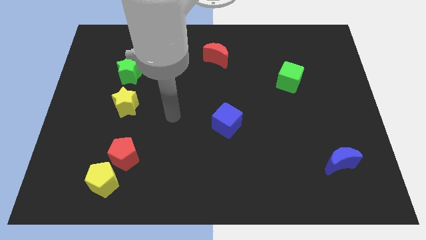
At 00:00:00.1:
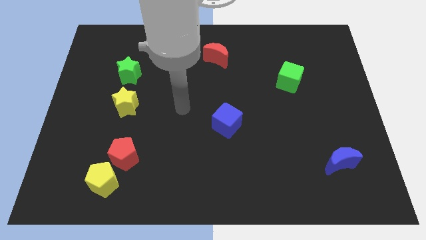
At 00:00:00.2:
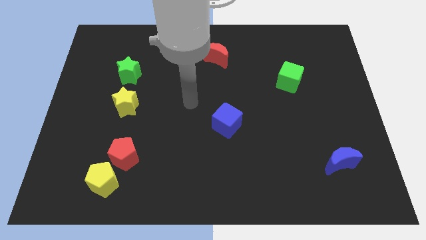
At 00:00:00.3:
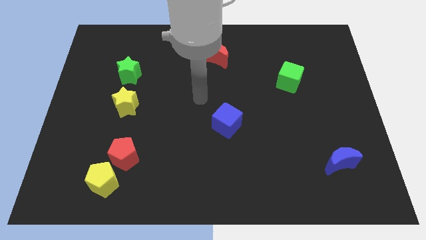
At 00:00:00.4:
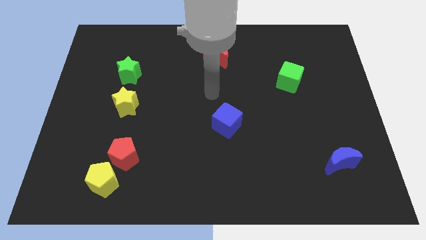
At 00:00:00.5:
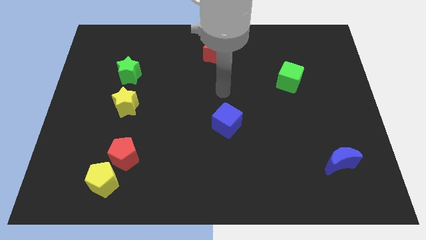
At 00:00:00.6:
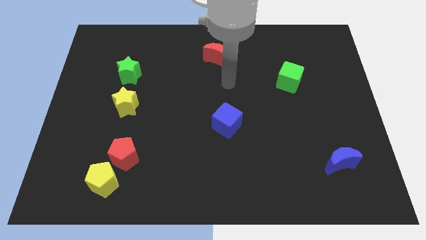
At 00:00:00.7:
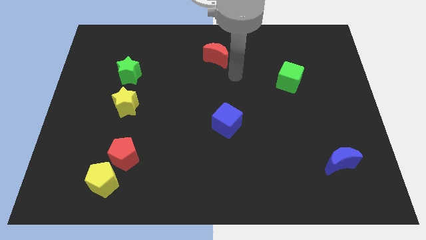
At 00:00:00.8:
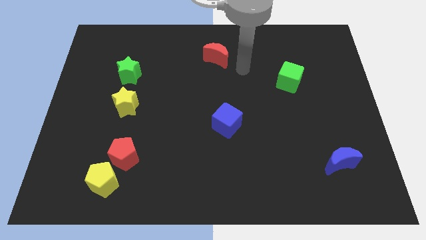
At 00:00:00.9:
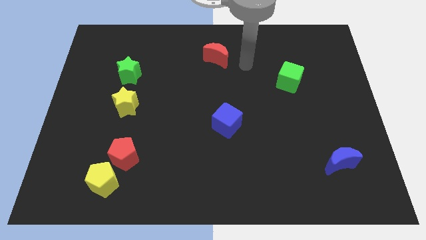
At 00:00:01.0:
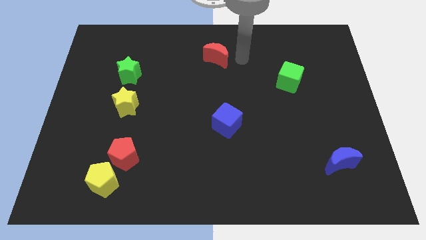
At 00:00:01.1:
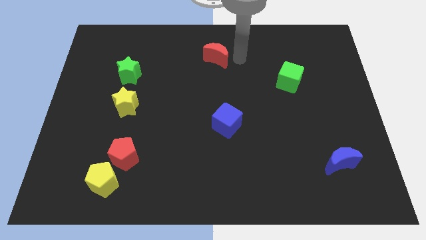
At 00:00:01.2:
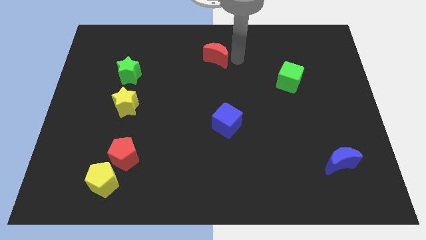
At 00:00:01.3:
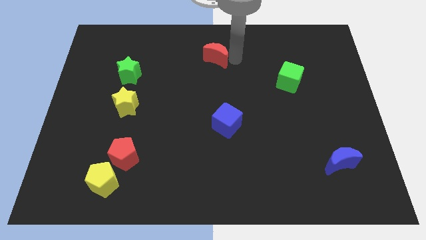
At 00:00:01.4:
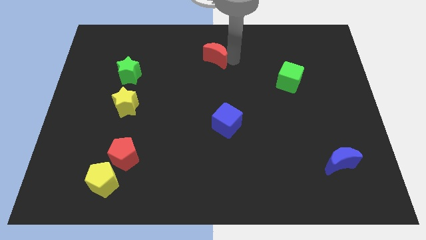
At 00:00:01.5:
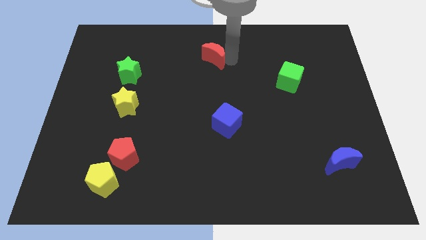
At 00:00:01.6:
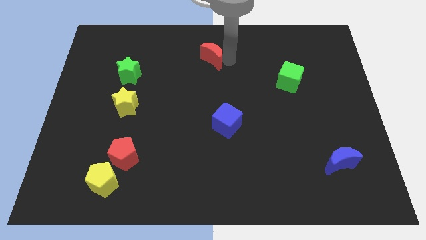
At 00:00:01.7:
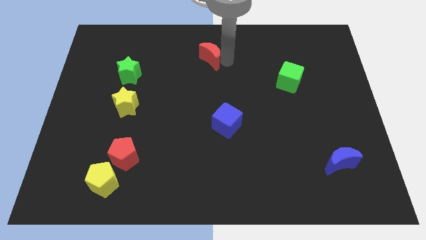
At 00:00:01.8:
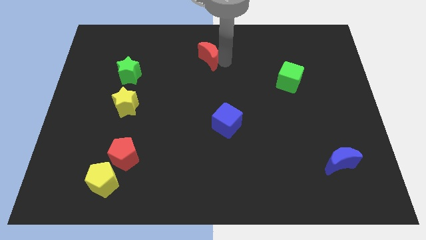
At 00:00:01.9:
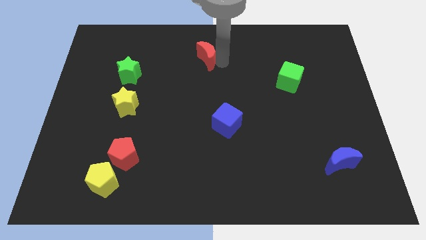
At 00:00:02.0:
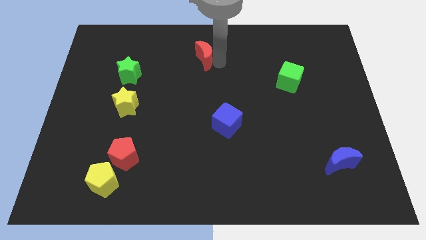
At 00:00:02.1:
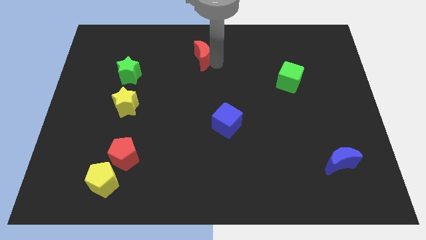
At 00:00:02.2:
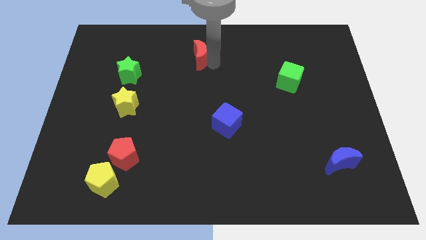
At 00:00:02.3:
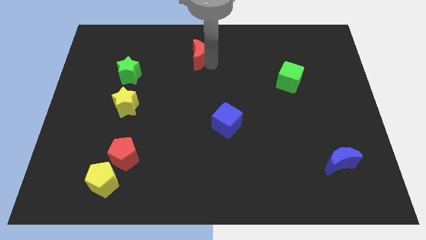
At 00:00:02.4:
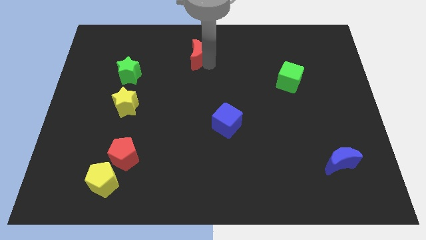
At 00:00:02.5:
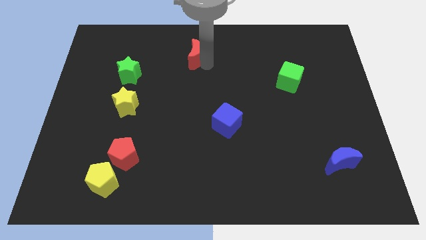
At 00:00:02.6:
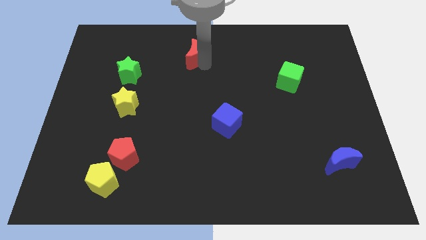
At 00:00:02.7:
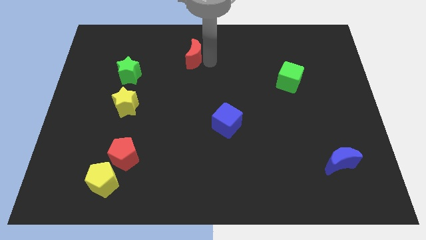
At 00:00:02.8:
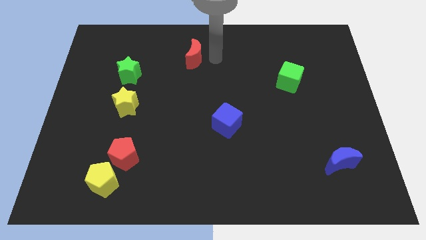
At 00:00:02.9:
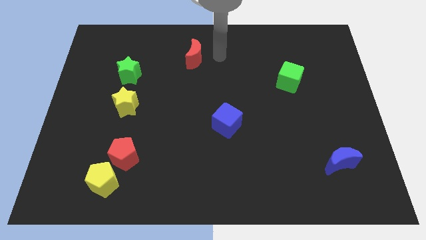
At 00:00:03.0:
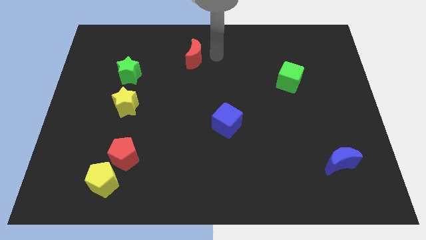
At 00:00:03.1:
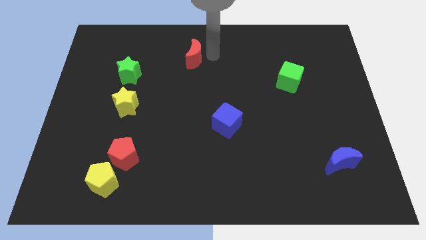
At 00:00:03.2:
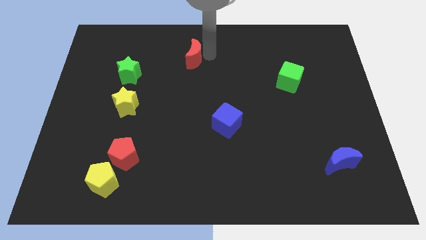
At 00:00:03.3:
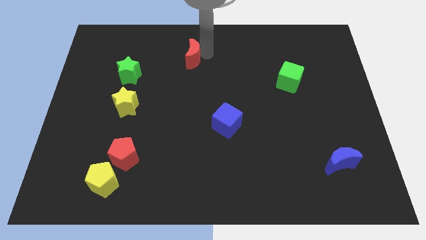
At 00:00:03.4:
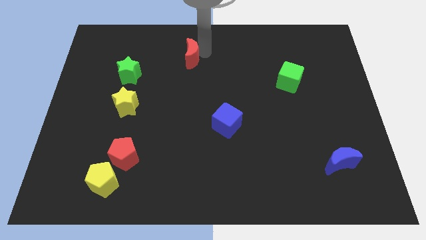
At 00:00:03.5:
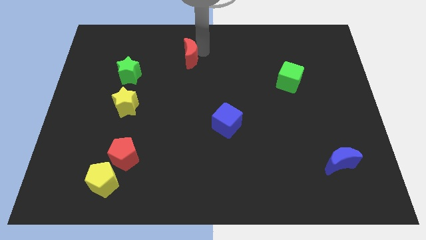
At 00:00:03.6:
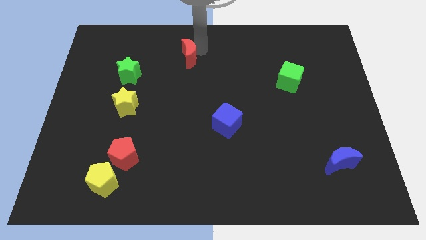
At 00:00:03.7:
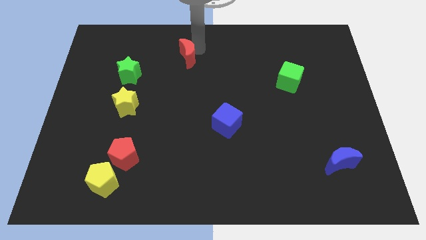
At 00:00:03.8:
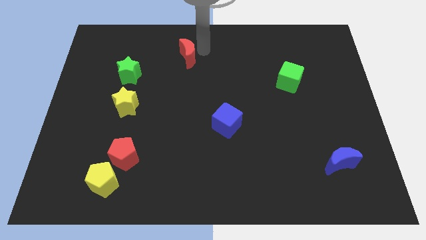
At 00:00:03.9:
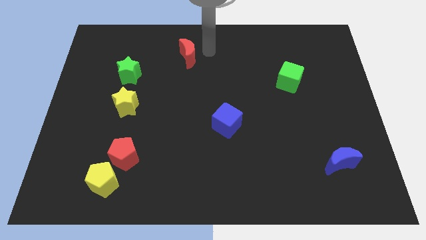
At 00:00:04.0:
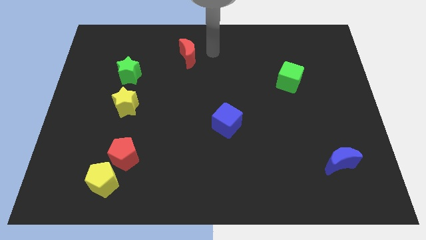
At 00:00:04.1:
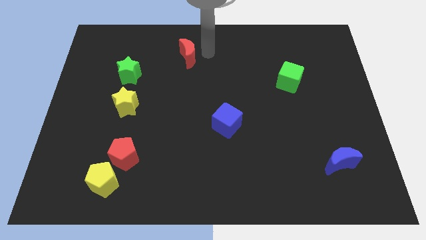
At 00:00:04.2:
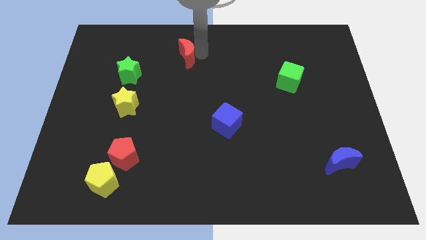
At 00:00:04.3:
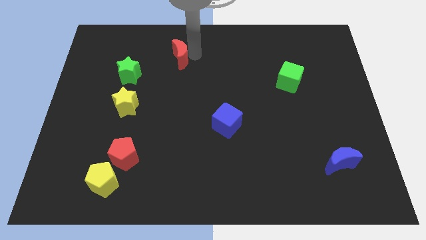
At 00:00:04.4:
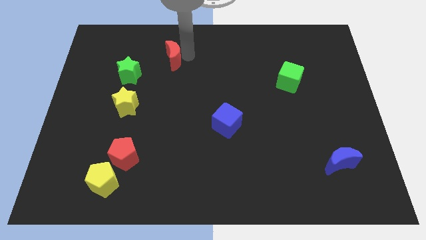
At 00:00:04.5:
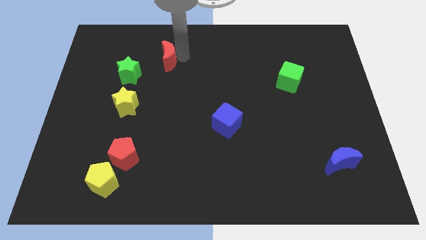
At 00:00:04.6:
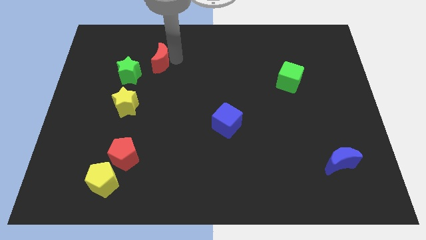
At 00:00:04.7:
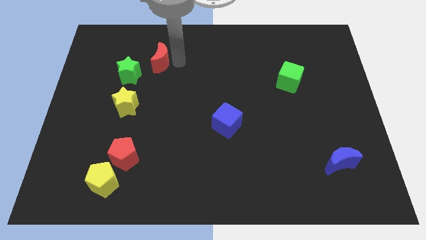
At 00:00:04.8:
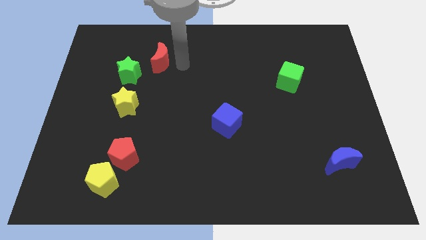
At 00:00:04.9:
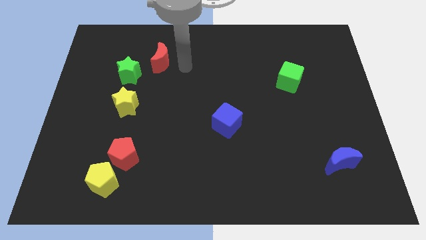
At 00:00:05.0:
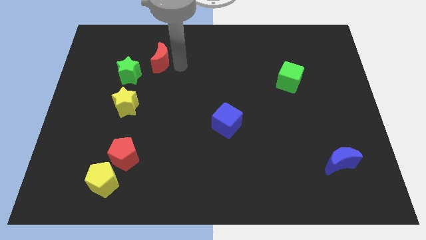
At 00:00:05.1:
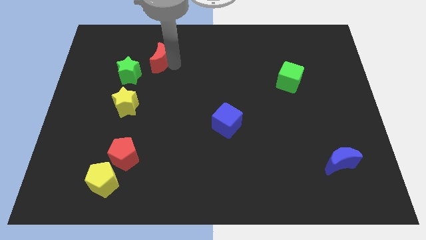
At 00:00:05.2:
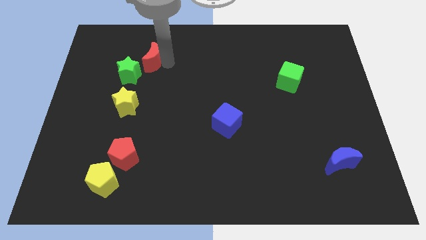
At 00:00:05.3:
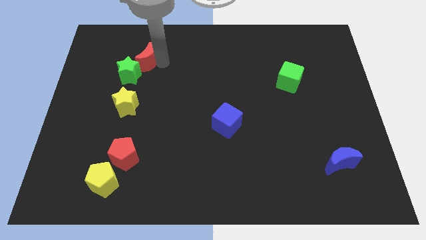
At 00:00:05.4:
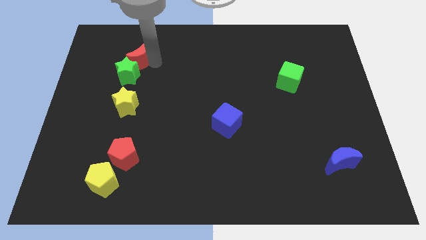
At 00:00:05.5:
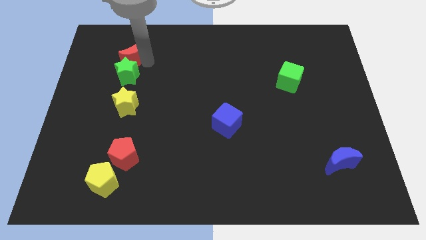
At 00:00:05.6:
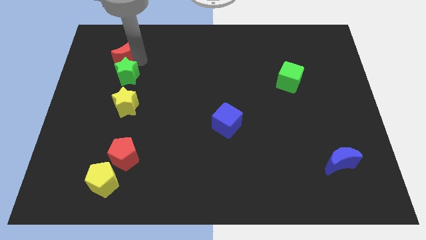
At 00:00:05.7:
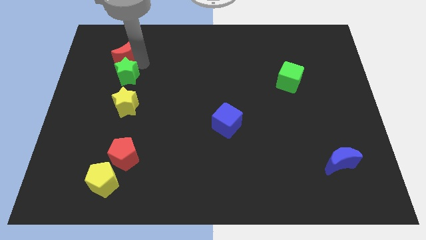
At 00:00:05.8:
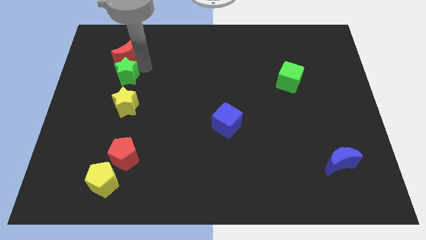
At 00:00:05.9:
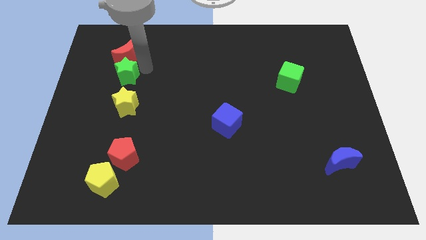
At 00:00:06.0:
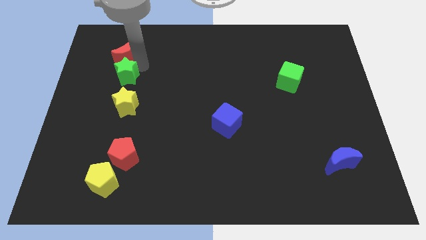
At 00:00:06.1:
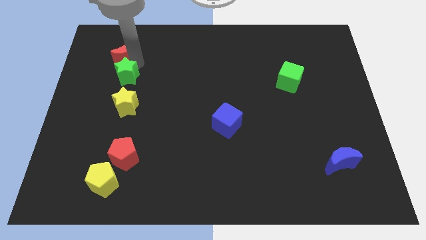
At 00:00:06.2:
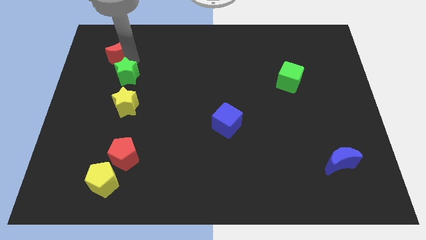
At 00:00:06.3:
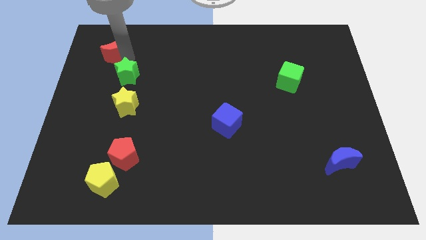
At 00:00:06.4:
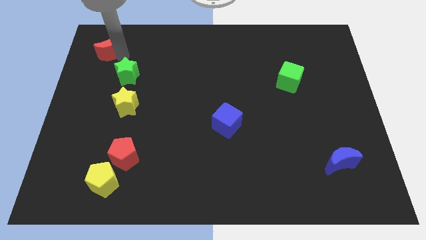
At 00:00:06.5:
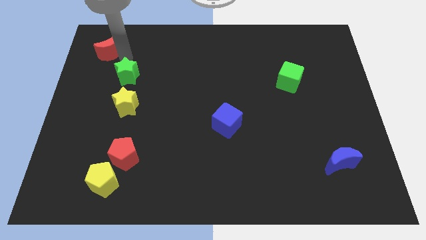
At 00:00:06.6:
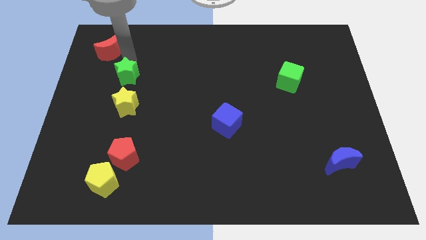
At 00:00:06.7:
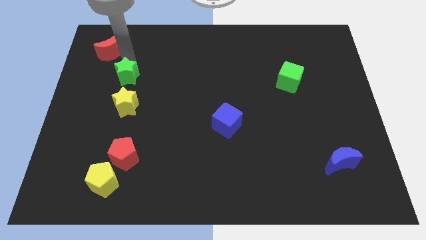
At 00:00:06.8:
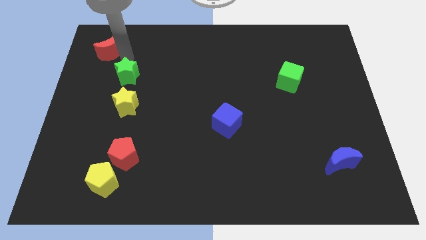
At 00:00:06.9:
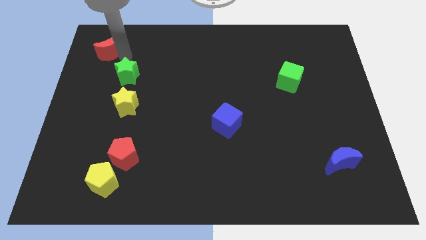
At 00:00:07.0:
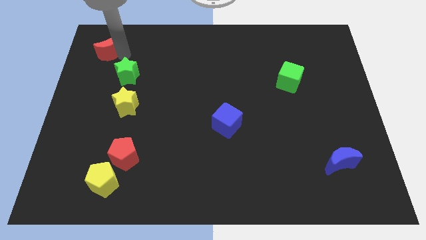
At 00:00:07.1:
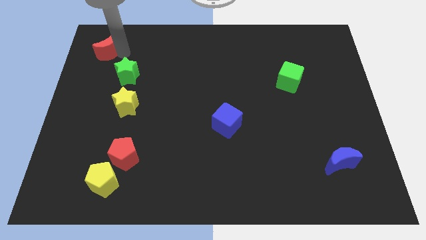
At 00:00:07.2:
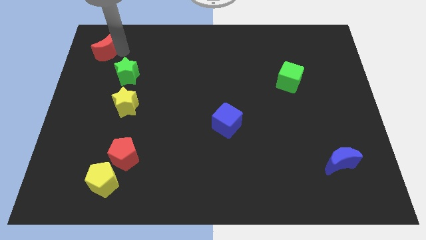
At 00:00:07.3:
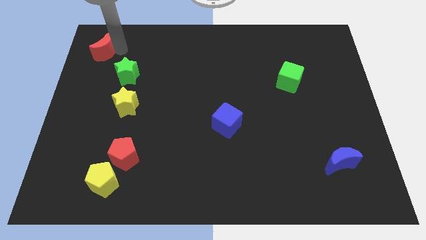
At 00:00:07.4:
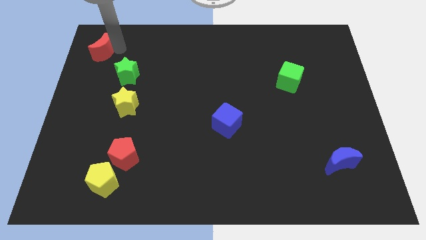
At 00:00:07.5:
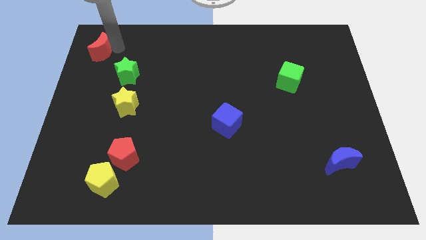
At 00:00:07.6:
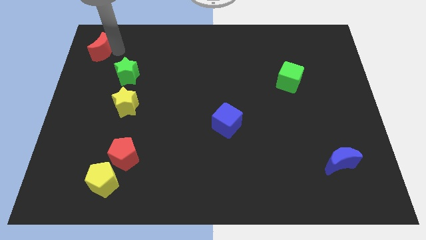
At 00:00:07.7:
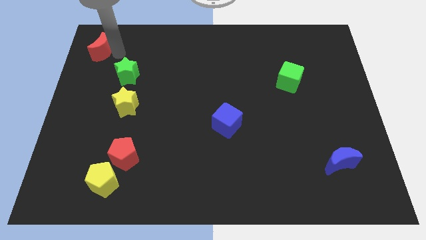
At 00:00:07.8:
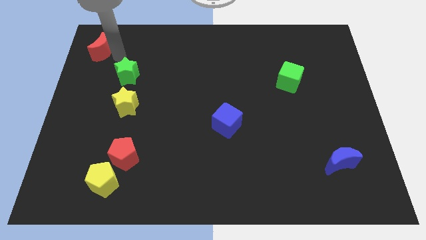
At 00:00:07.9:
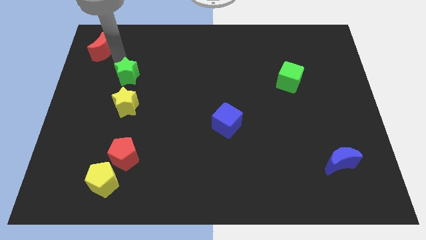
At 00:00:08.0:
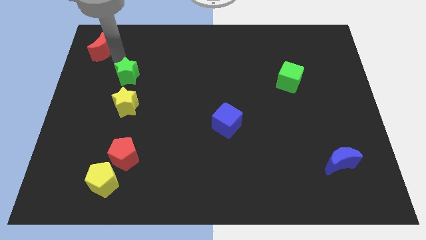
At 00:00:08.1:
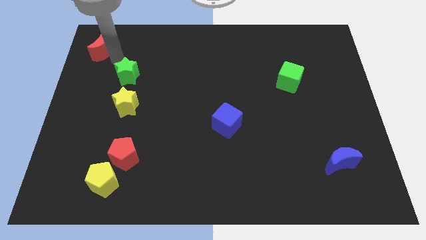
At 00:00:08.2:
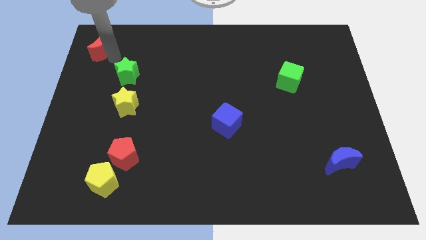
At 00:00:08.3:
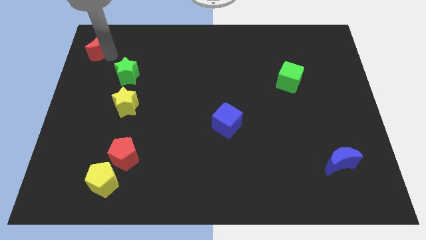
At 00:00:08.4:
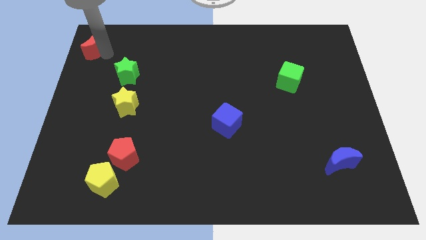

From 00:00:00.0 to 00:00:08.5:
move the red moon to the upper left corner
